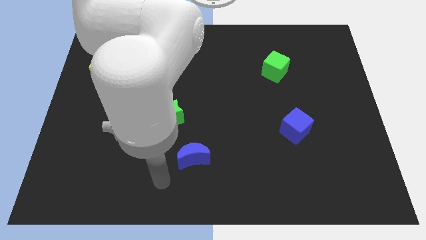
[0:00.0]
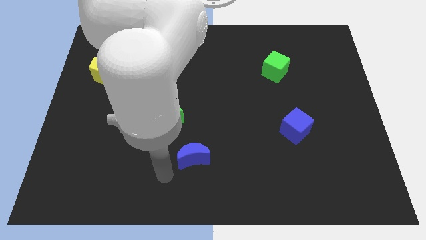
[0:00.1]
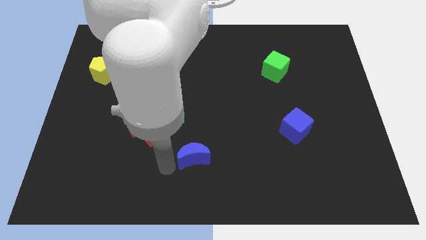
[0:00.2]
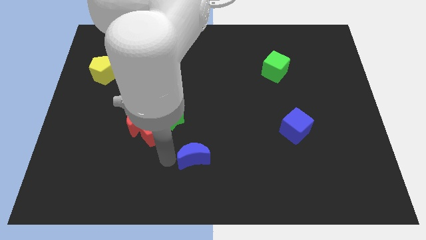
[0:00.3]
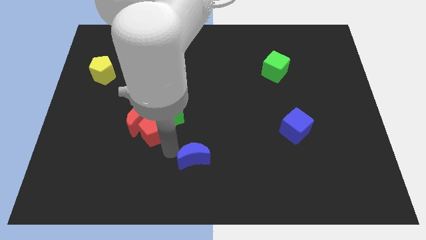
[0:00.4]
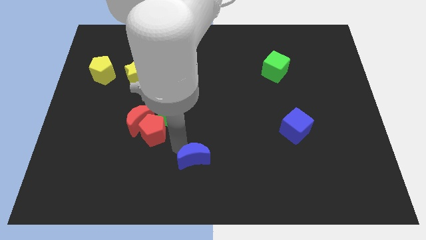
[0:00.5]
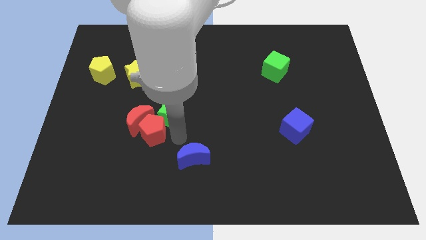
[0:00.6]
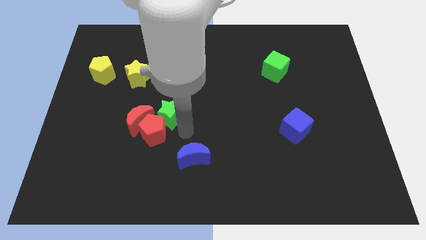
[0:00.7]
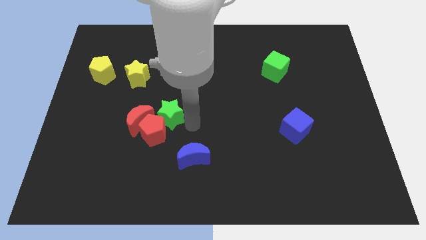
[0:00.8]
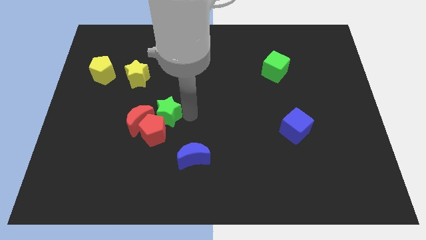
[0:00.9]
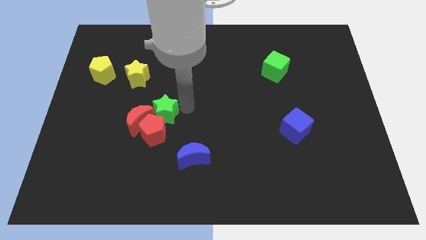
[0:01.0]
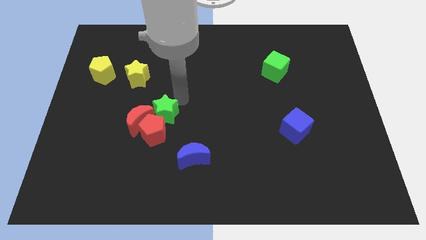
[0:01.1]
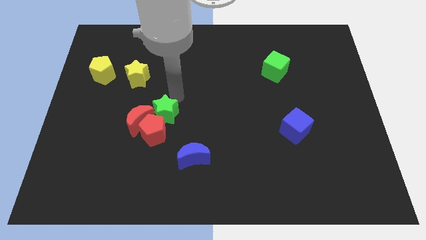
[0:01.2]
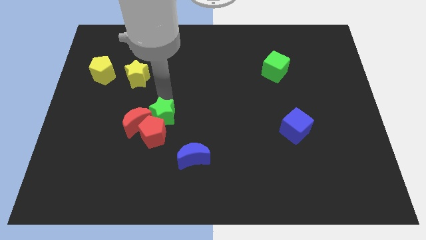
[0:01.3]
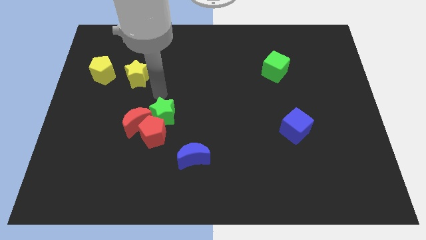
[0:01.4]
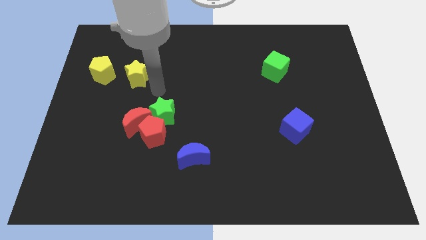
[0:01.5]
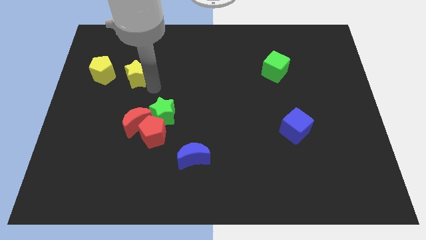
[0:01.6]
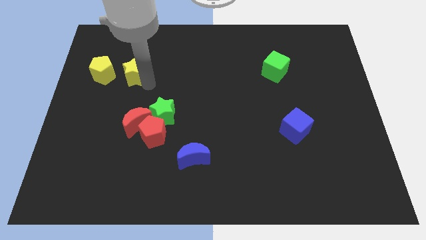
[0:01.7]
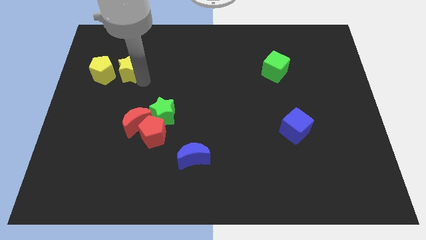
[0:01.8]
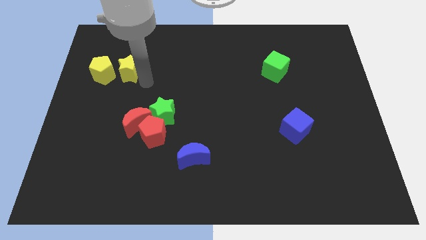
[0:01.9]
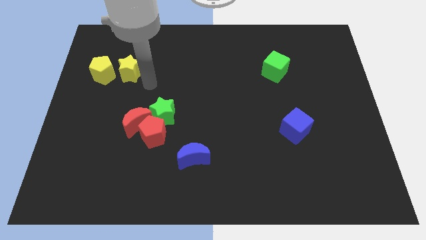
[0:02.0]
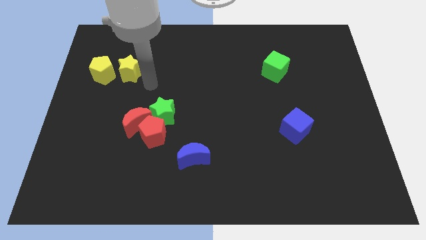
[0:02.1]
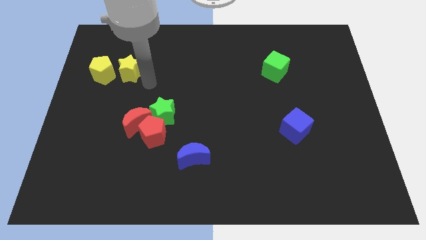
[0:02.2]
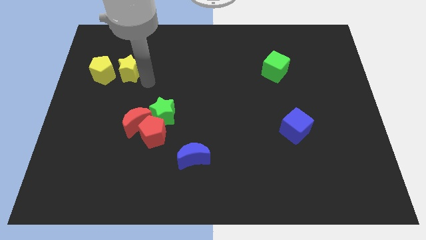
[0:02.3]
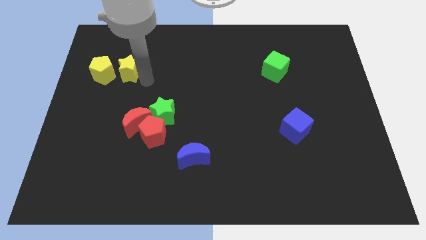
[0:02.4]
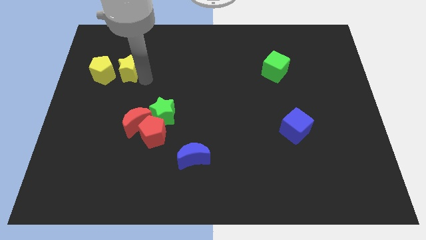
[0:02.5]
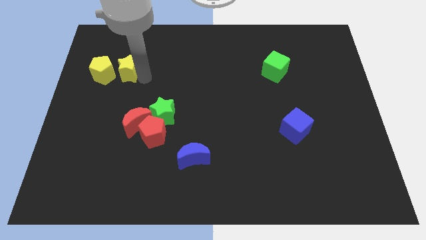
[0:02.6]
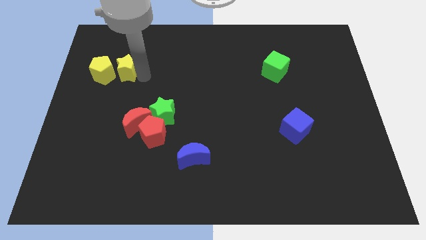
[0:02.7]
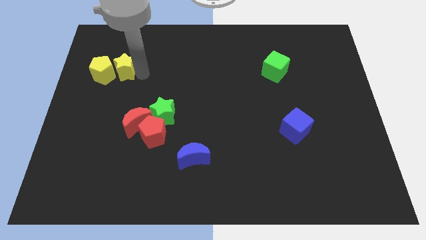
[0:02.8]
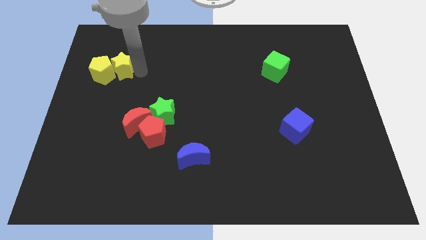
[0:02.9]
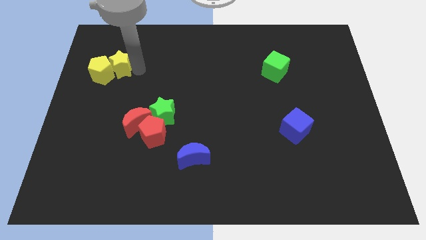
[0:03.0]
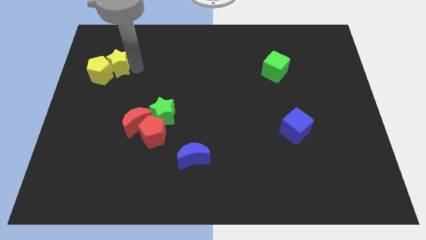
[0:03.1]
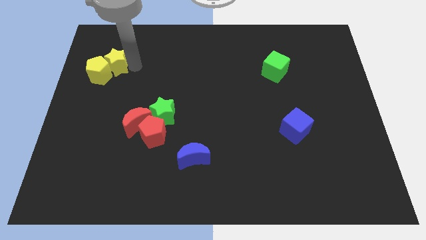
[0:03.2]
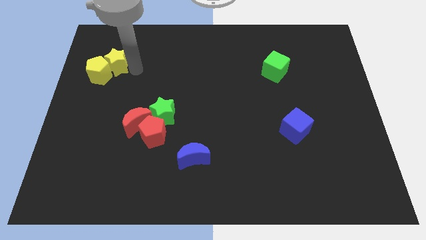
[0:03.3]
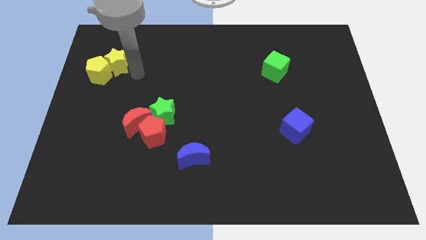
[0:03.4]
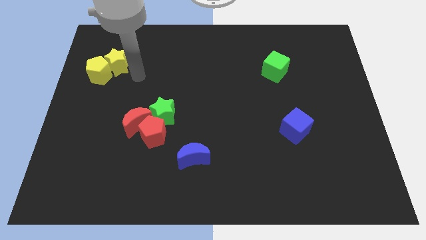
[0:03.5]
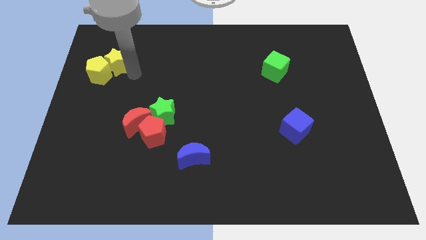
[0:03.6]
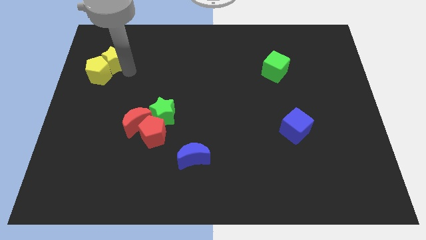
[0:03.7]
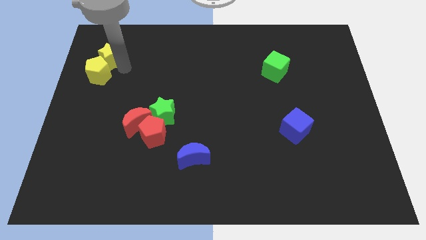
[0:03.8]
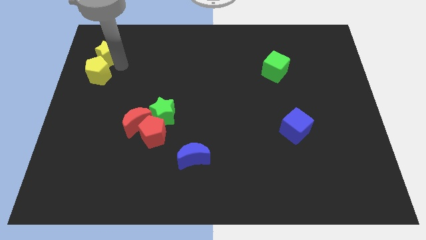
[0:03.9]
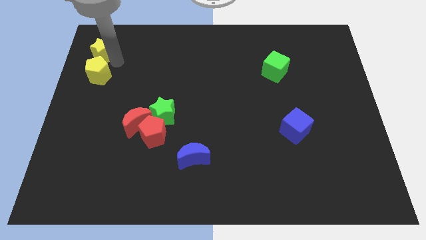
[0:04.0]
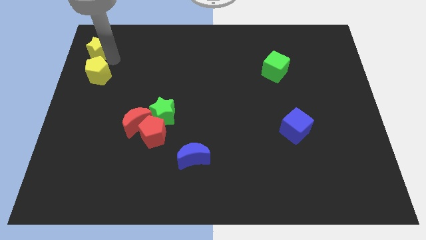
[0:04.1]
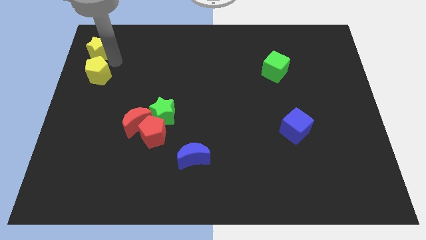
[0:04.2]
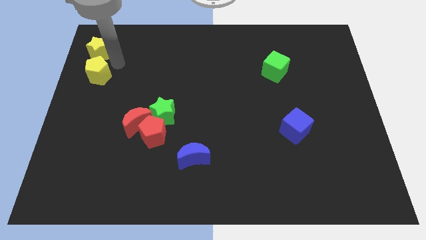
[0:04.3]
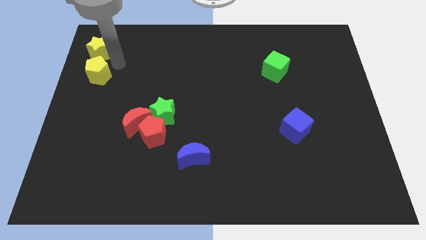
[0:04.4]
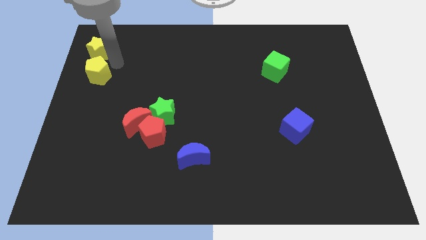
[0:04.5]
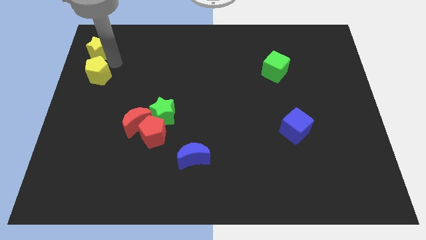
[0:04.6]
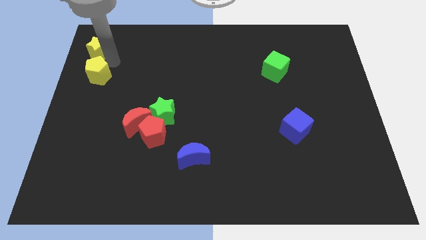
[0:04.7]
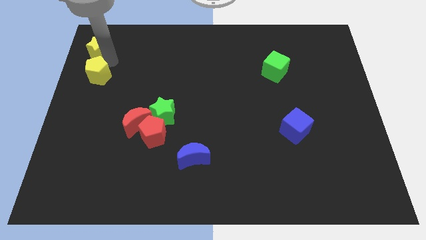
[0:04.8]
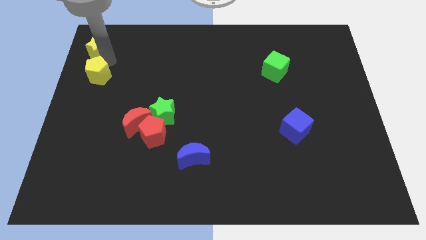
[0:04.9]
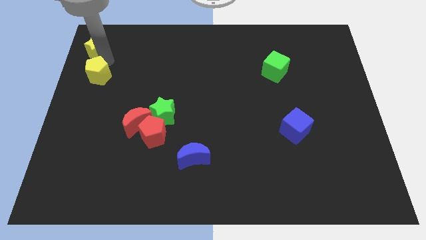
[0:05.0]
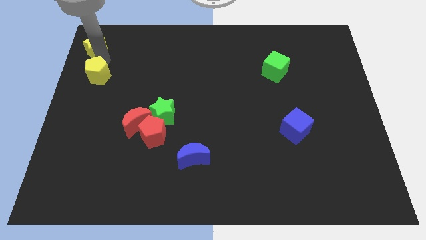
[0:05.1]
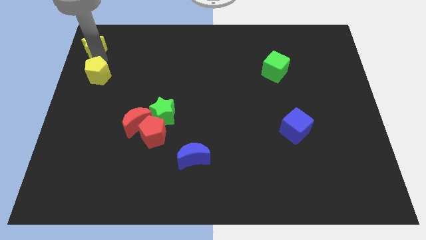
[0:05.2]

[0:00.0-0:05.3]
push the yellow star to the top left of the board
